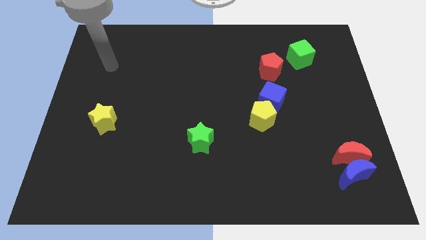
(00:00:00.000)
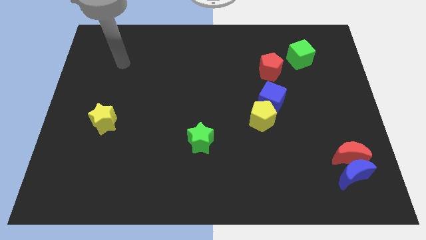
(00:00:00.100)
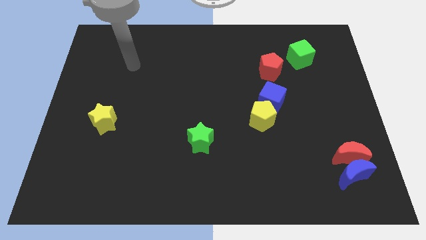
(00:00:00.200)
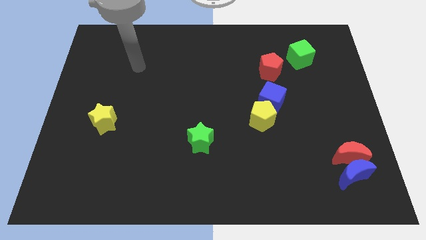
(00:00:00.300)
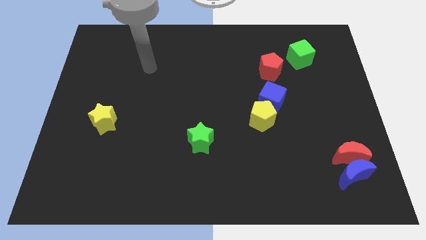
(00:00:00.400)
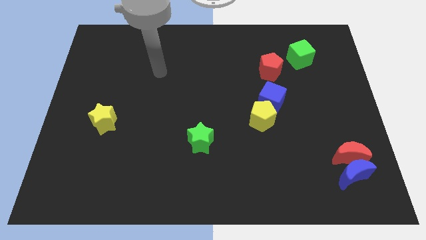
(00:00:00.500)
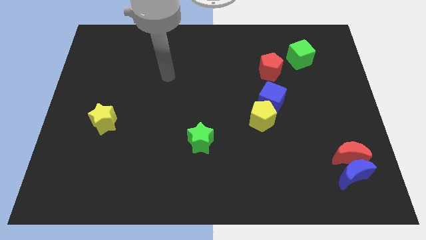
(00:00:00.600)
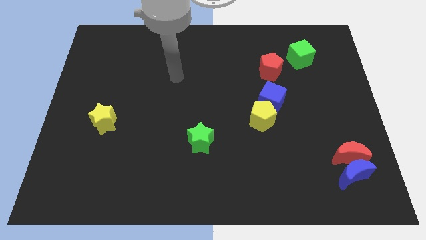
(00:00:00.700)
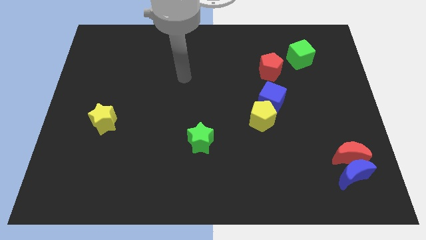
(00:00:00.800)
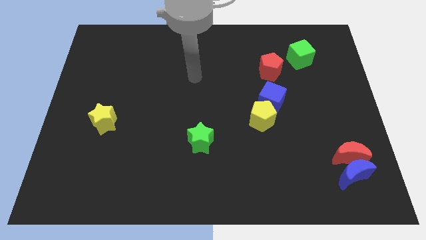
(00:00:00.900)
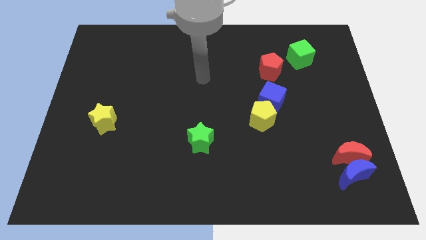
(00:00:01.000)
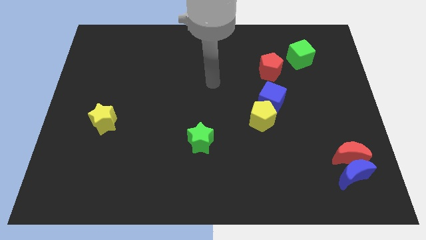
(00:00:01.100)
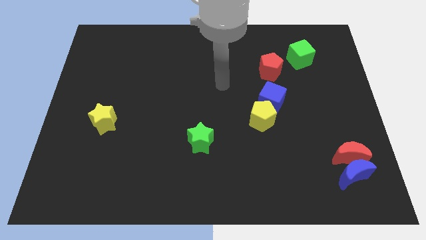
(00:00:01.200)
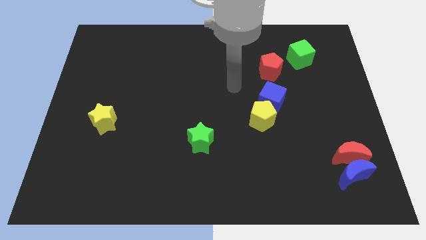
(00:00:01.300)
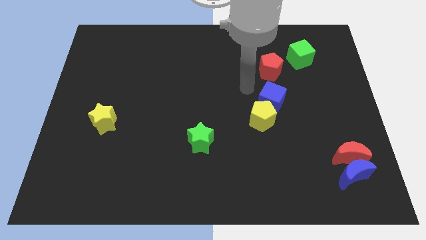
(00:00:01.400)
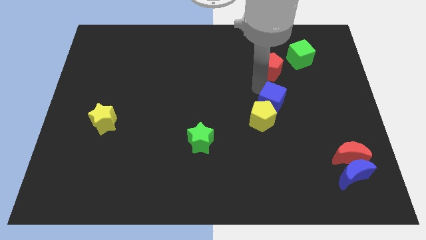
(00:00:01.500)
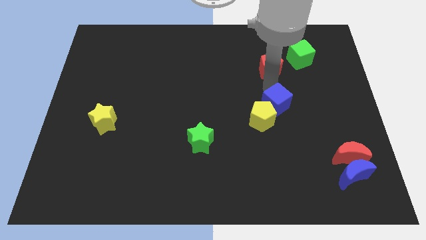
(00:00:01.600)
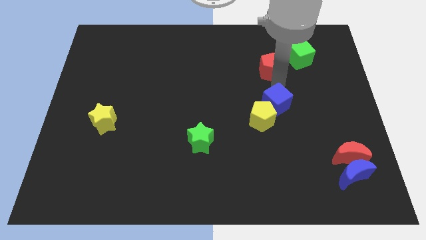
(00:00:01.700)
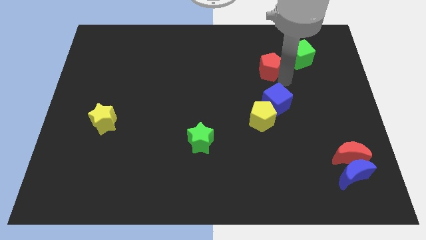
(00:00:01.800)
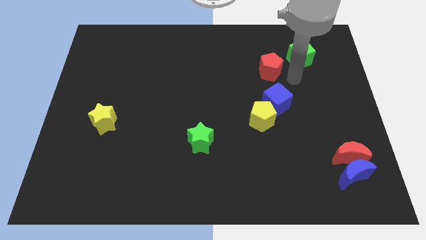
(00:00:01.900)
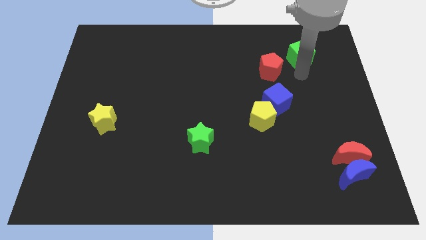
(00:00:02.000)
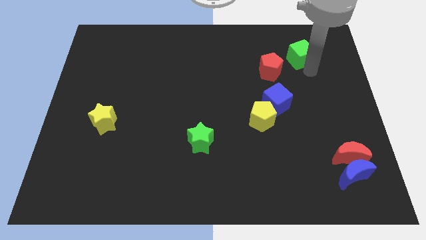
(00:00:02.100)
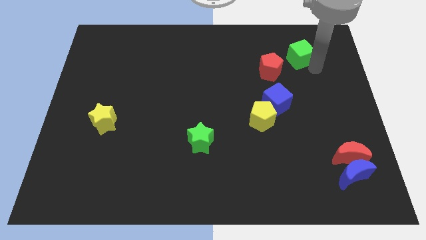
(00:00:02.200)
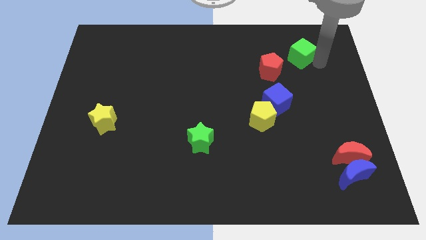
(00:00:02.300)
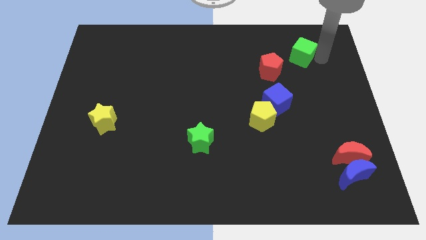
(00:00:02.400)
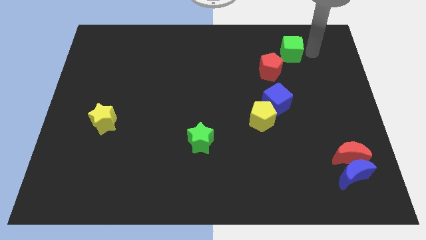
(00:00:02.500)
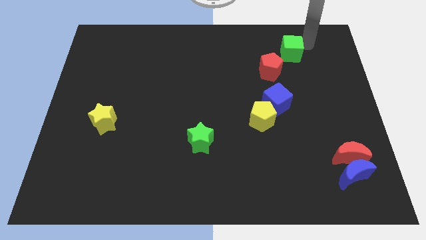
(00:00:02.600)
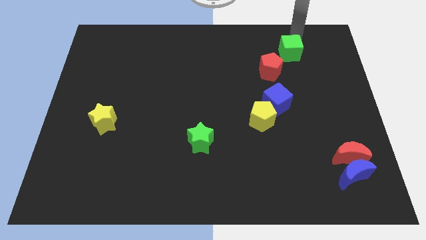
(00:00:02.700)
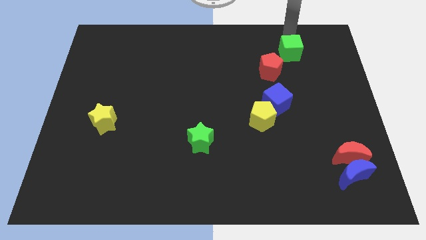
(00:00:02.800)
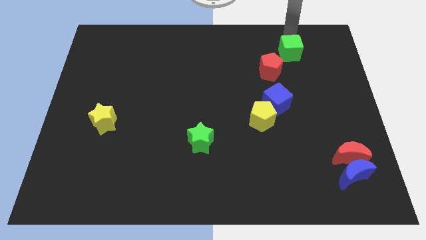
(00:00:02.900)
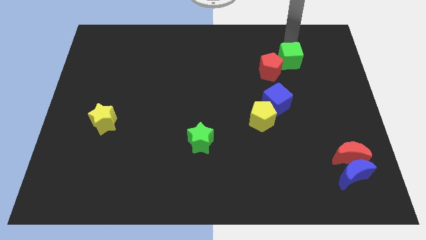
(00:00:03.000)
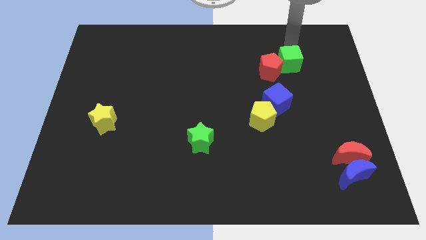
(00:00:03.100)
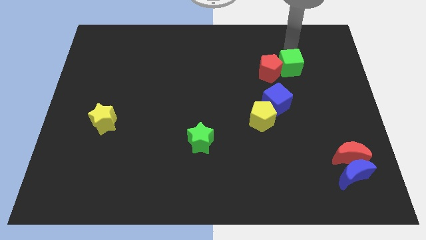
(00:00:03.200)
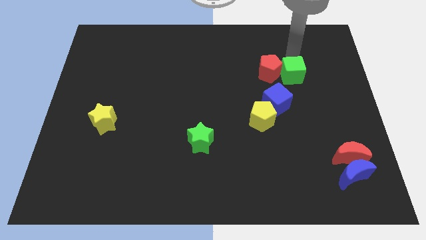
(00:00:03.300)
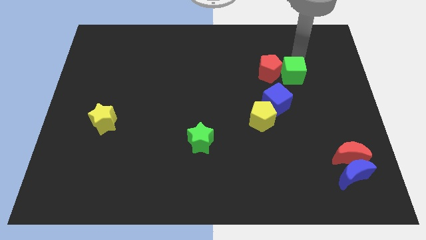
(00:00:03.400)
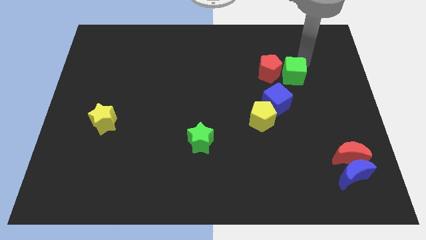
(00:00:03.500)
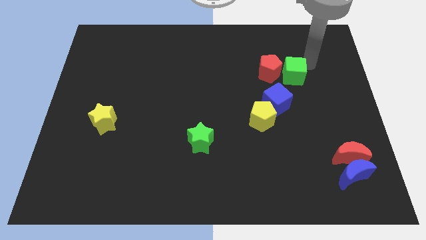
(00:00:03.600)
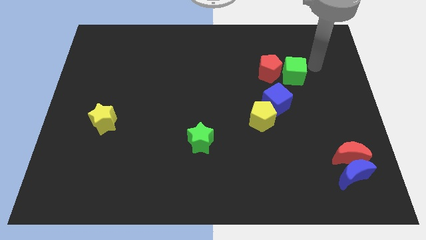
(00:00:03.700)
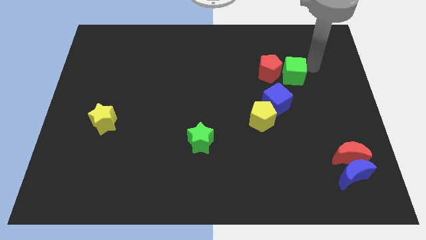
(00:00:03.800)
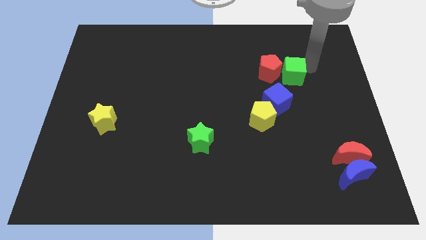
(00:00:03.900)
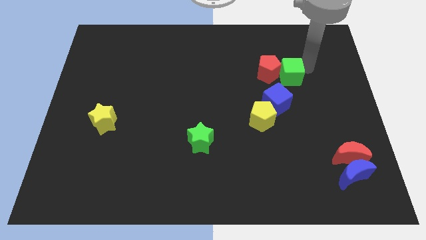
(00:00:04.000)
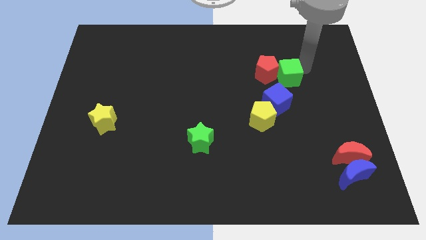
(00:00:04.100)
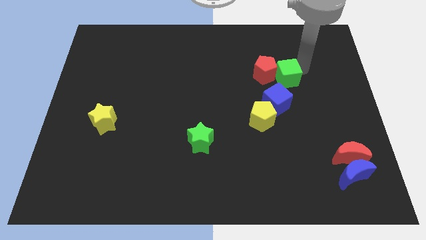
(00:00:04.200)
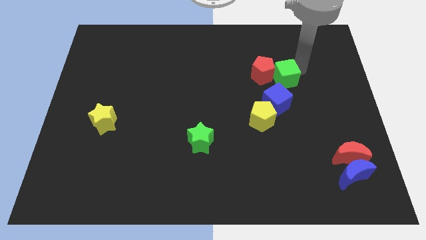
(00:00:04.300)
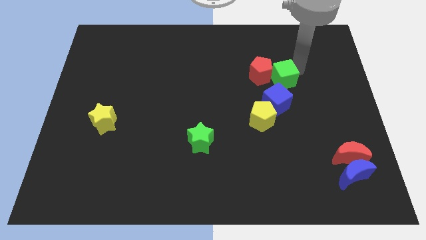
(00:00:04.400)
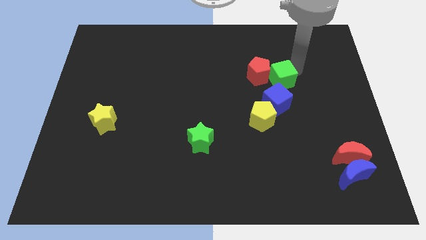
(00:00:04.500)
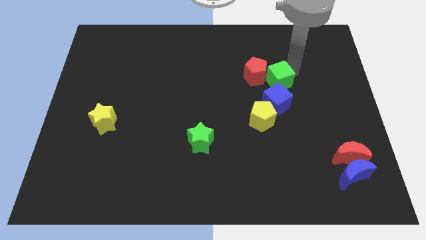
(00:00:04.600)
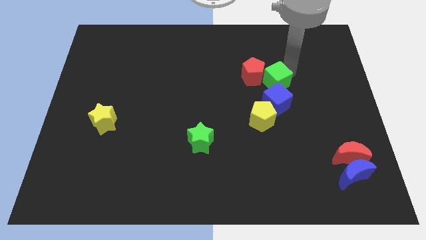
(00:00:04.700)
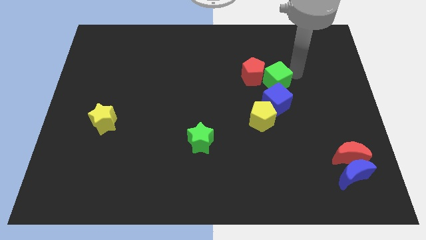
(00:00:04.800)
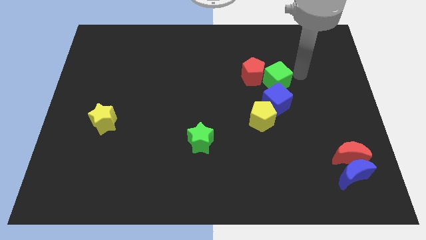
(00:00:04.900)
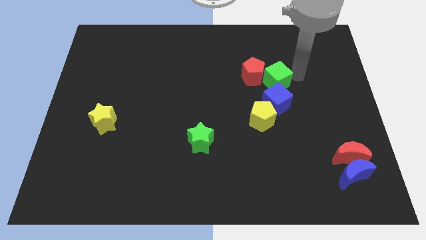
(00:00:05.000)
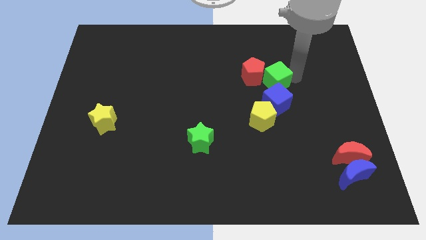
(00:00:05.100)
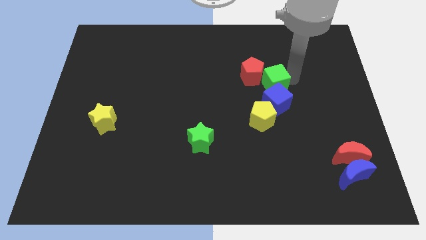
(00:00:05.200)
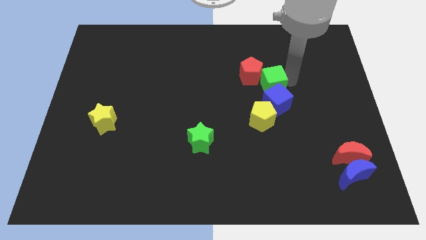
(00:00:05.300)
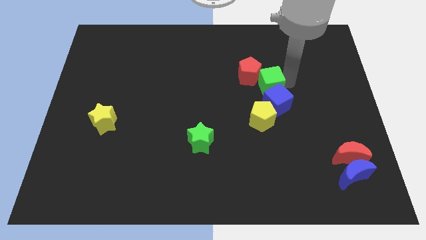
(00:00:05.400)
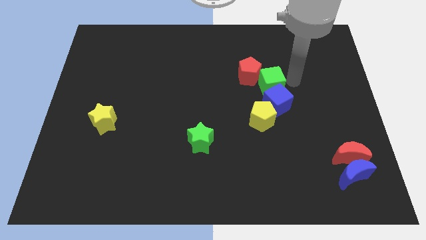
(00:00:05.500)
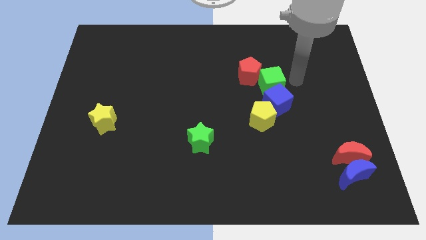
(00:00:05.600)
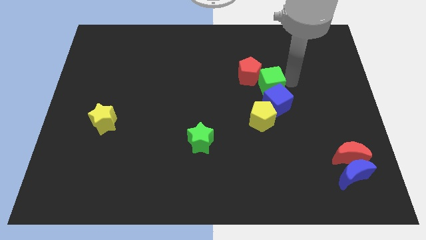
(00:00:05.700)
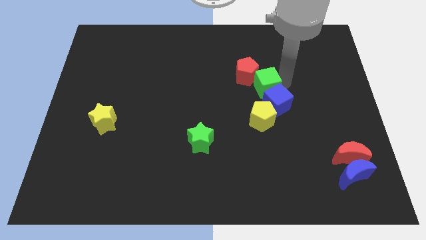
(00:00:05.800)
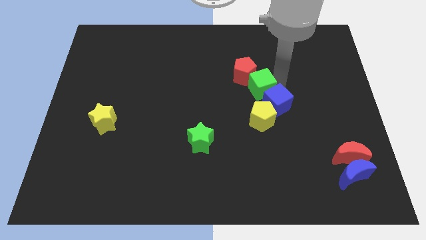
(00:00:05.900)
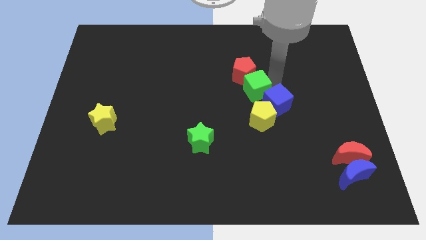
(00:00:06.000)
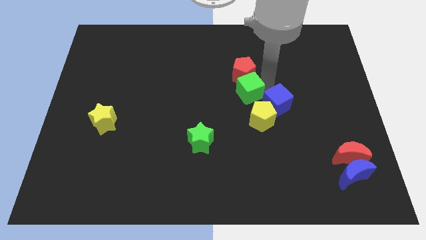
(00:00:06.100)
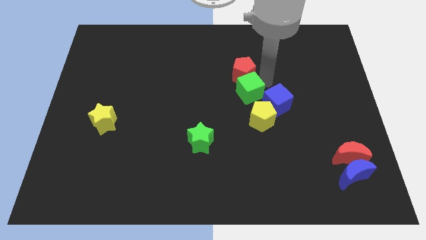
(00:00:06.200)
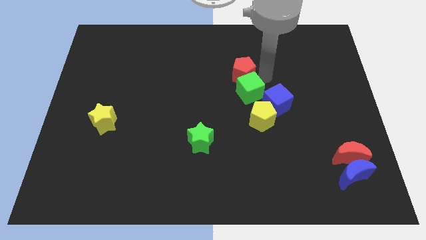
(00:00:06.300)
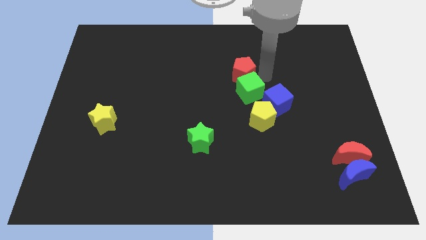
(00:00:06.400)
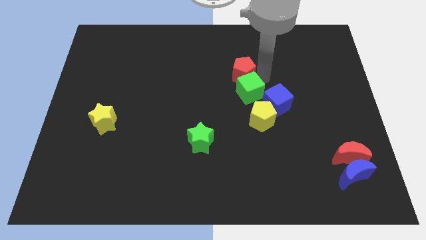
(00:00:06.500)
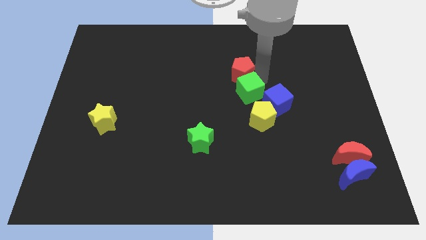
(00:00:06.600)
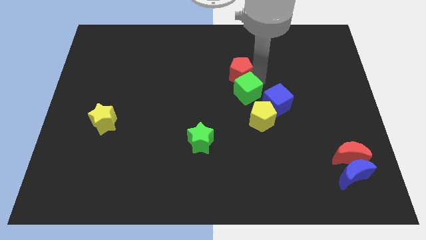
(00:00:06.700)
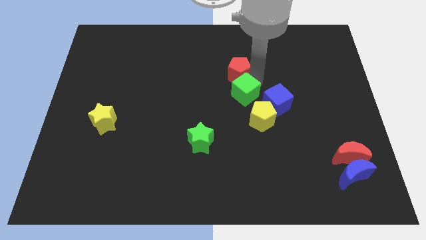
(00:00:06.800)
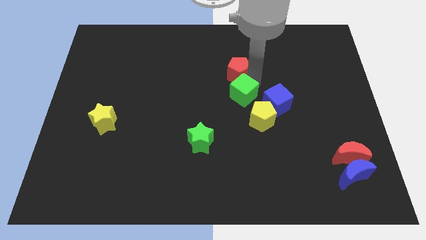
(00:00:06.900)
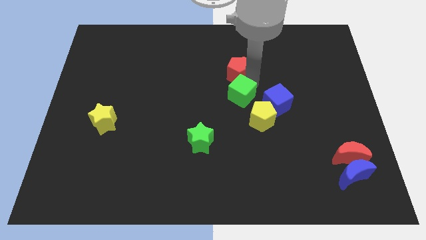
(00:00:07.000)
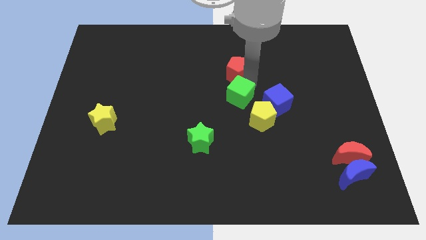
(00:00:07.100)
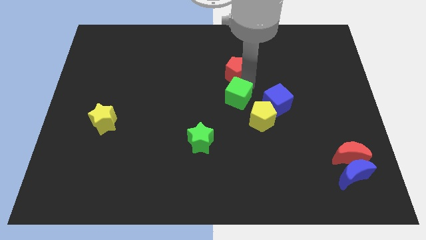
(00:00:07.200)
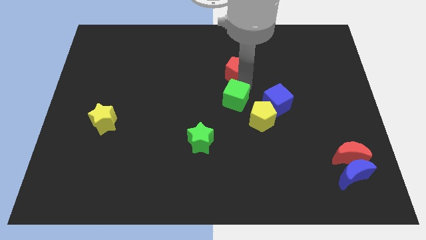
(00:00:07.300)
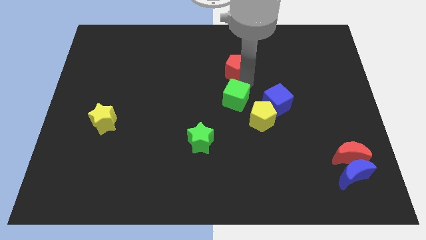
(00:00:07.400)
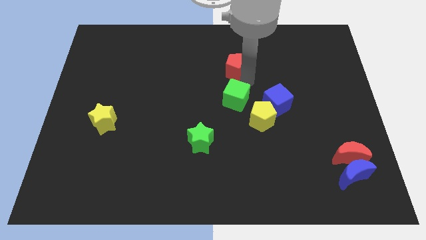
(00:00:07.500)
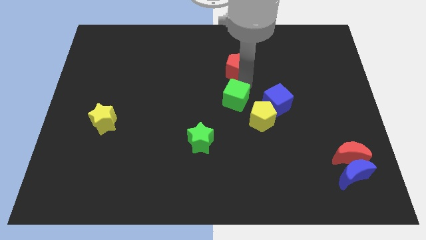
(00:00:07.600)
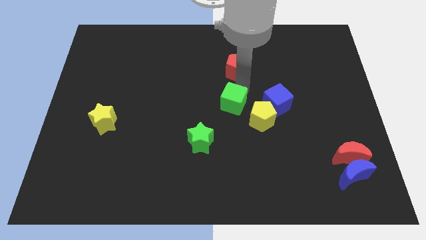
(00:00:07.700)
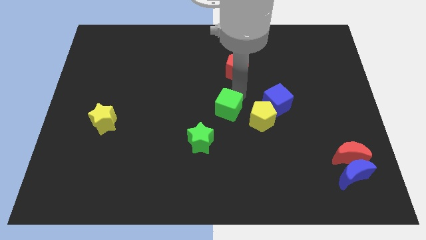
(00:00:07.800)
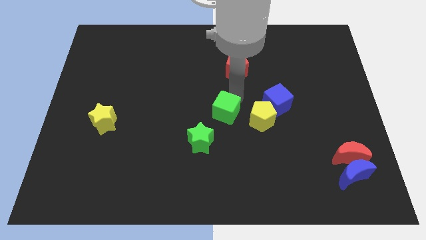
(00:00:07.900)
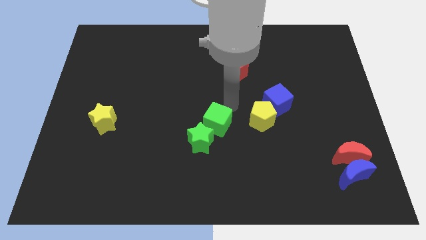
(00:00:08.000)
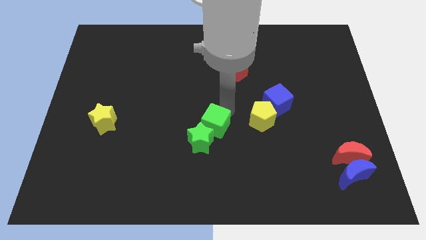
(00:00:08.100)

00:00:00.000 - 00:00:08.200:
slide the green cube close to the green star
